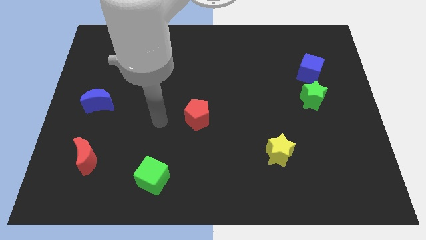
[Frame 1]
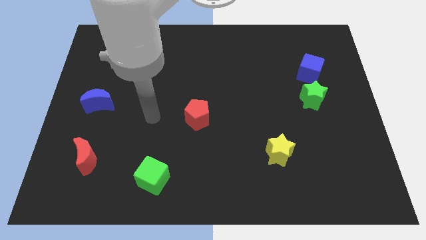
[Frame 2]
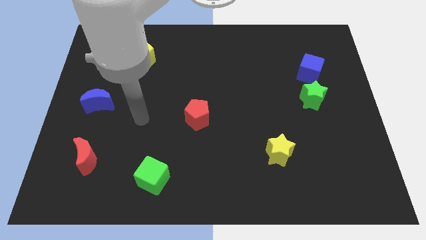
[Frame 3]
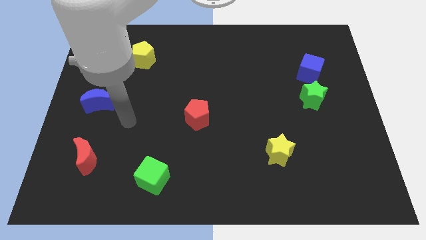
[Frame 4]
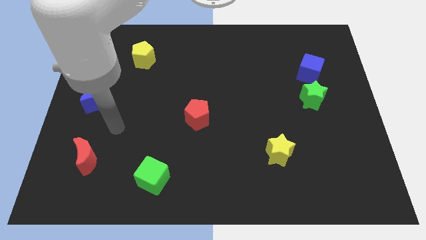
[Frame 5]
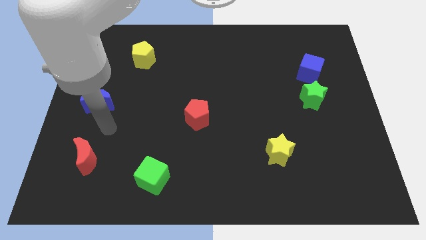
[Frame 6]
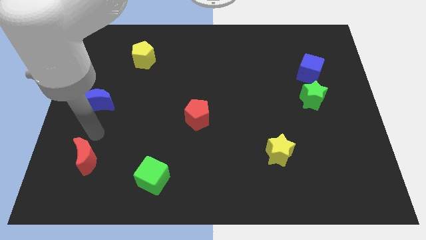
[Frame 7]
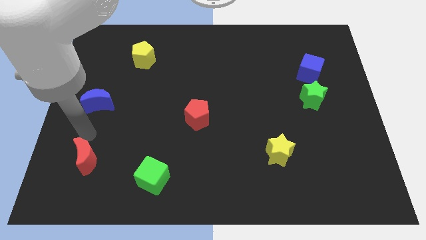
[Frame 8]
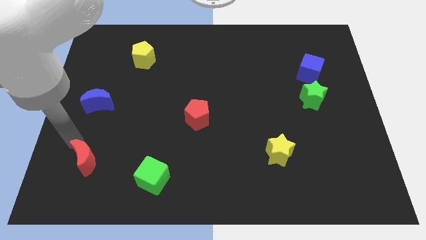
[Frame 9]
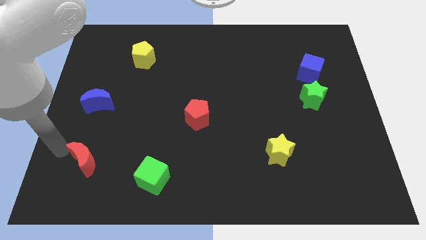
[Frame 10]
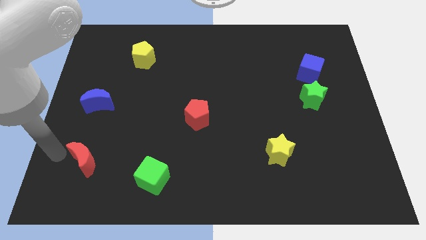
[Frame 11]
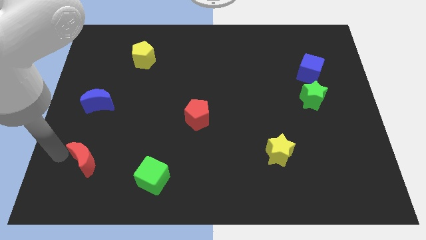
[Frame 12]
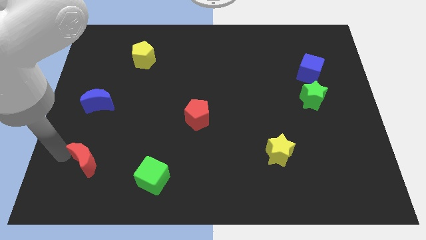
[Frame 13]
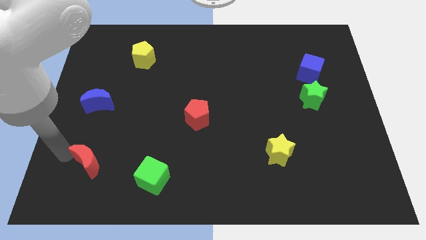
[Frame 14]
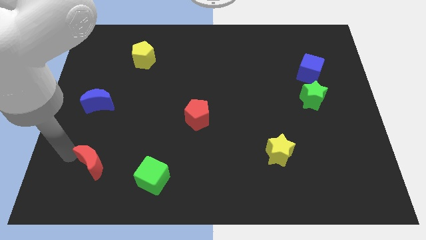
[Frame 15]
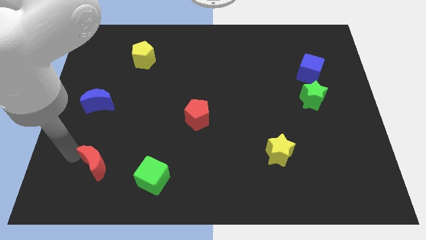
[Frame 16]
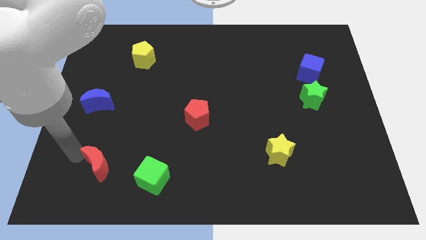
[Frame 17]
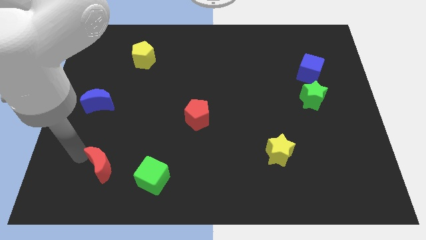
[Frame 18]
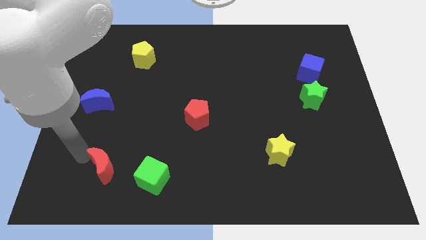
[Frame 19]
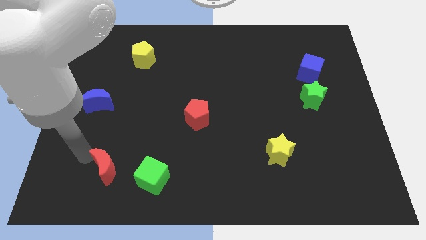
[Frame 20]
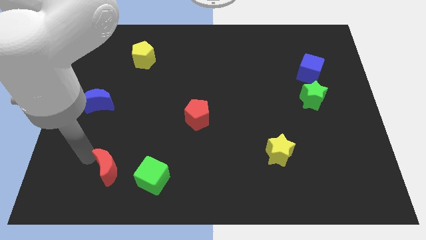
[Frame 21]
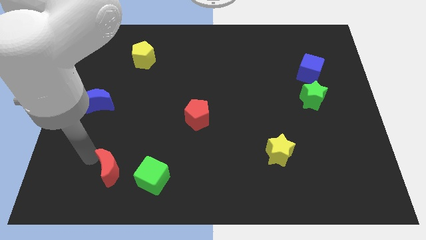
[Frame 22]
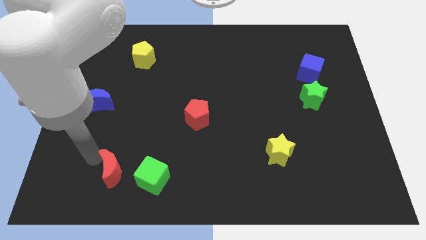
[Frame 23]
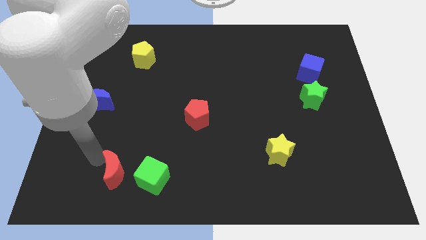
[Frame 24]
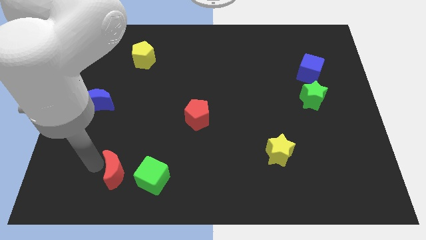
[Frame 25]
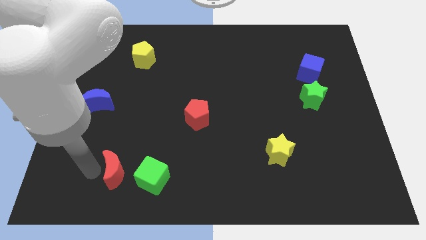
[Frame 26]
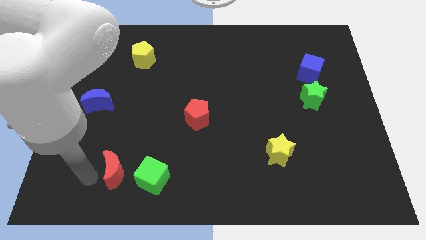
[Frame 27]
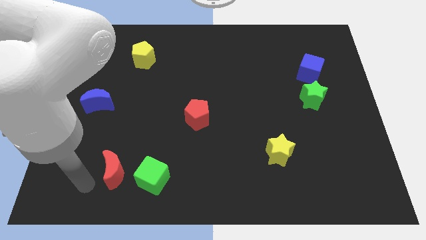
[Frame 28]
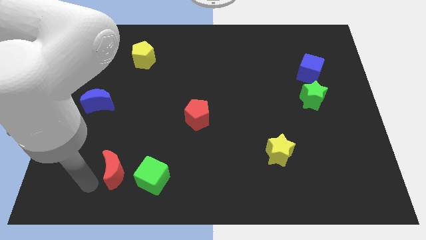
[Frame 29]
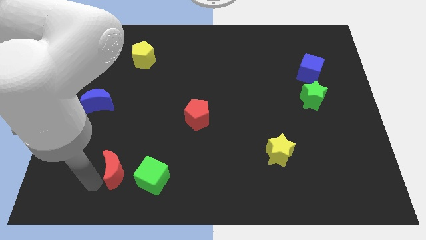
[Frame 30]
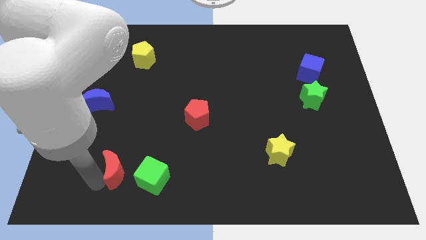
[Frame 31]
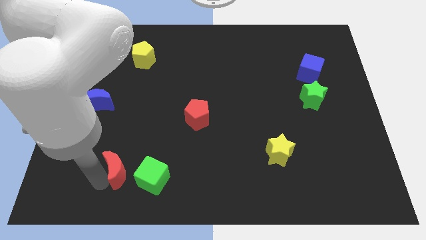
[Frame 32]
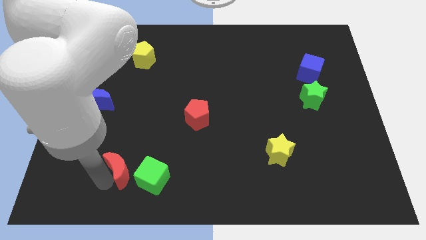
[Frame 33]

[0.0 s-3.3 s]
slightly move the red moon to the right

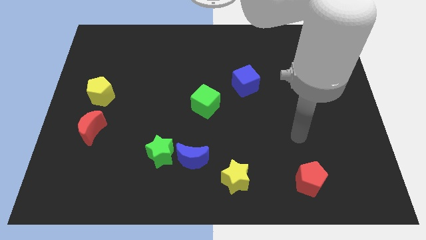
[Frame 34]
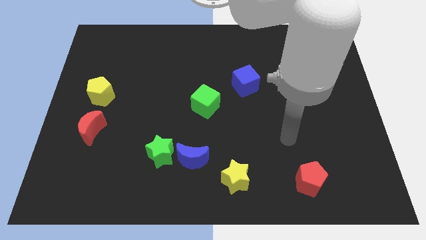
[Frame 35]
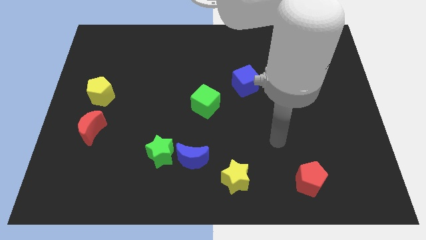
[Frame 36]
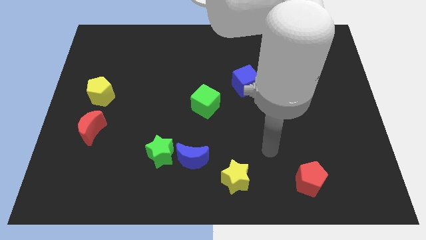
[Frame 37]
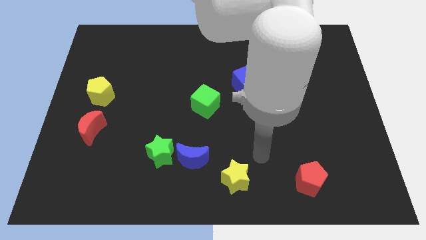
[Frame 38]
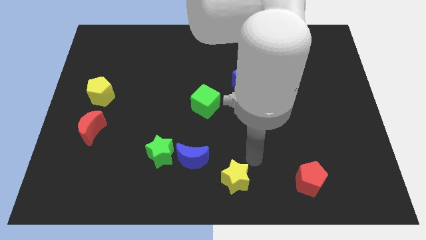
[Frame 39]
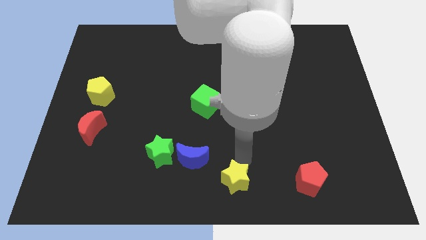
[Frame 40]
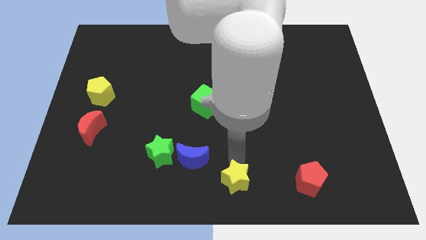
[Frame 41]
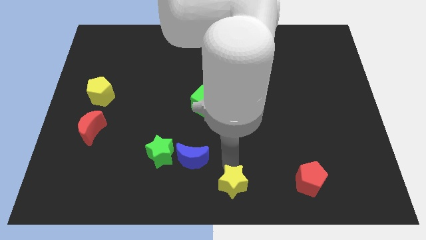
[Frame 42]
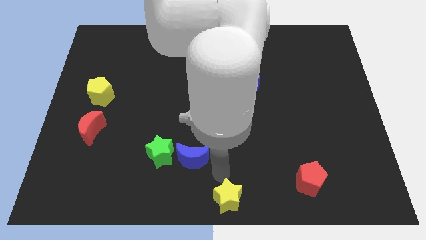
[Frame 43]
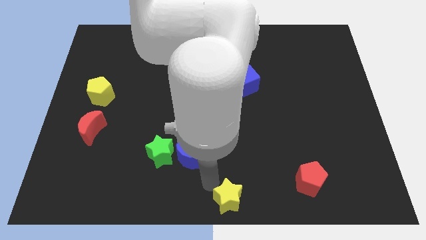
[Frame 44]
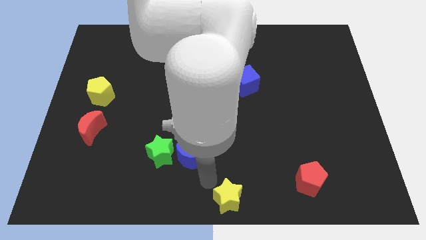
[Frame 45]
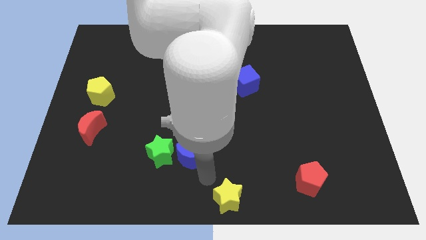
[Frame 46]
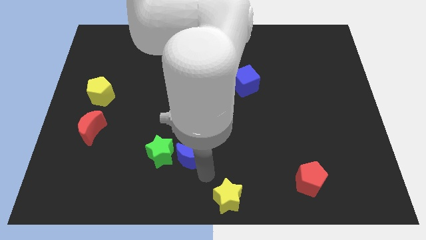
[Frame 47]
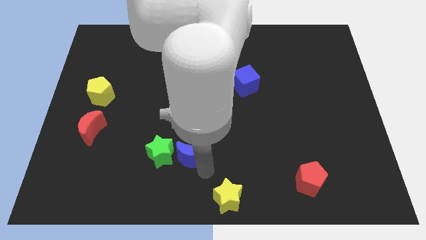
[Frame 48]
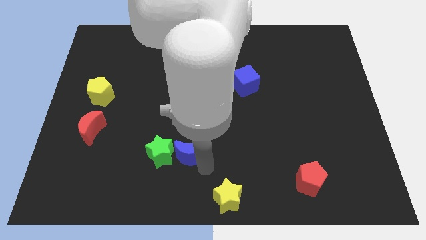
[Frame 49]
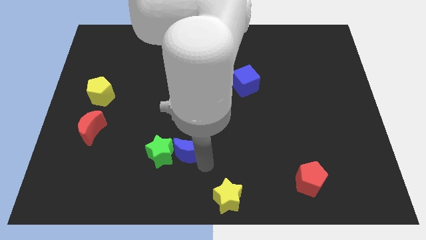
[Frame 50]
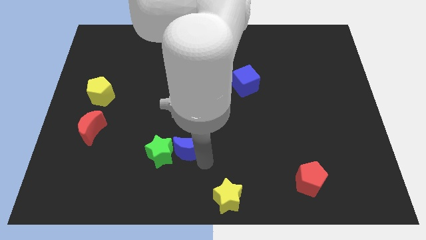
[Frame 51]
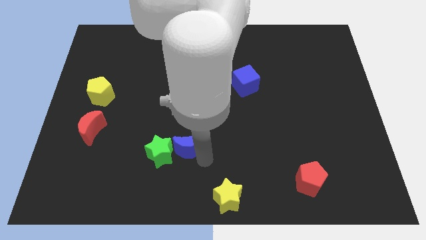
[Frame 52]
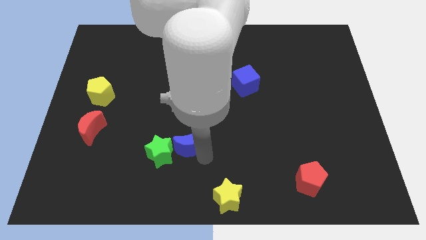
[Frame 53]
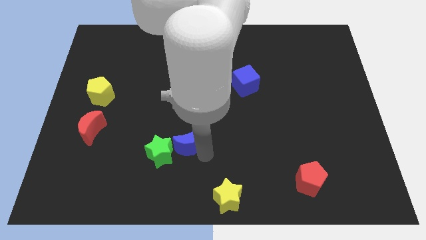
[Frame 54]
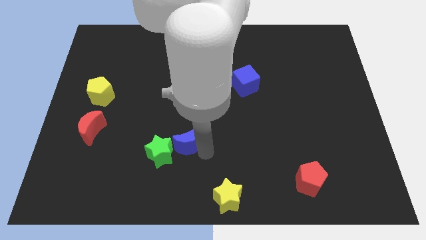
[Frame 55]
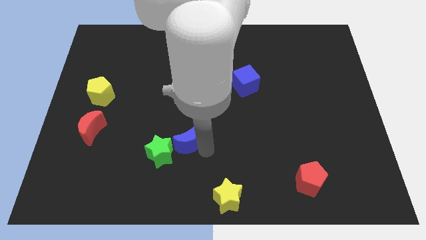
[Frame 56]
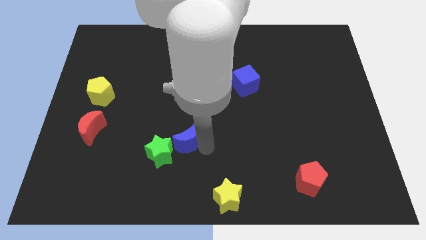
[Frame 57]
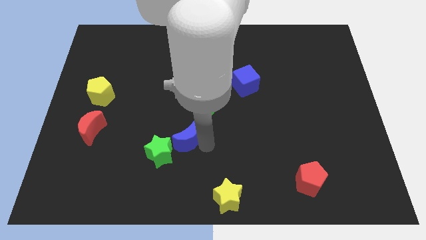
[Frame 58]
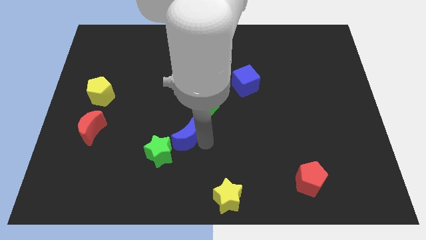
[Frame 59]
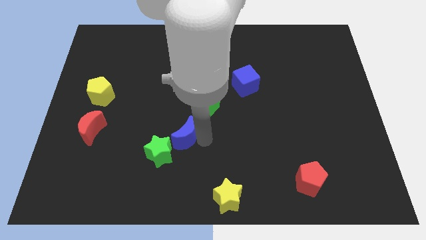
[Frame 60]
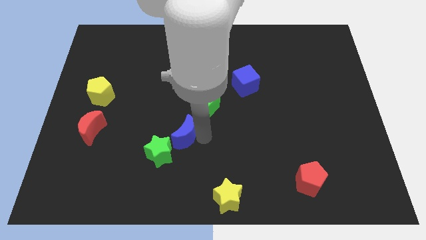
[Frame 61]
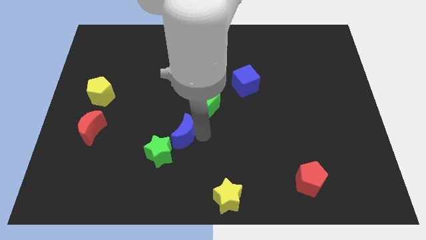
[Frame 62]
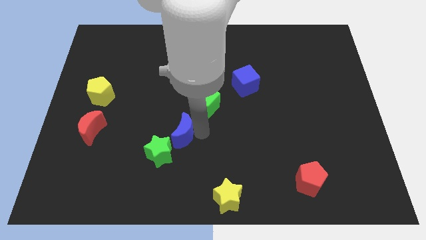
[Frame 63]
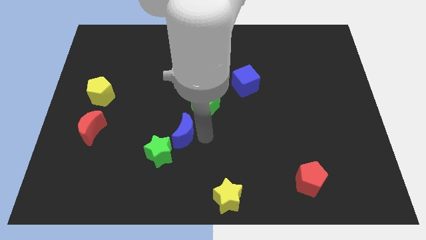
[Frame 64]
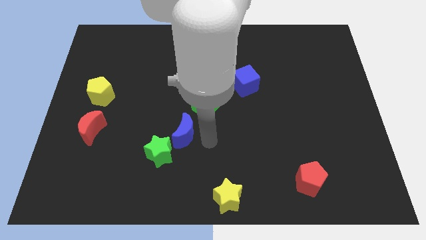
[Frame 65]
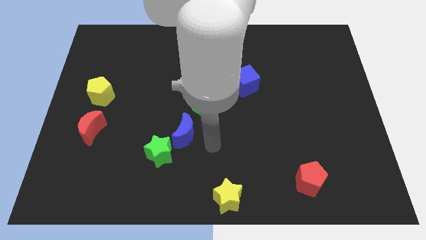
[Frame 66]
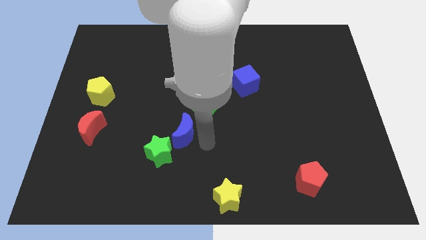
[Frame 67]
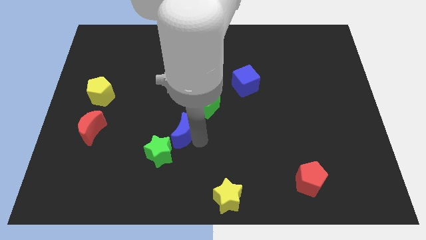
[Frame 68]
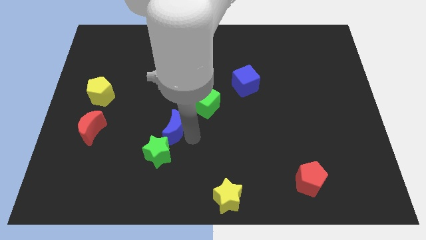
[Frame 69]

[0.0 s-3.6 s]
slightly push the blue moon upwards and then to the left

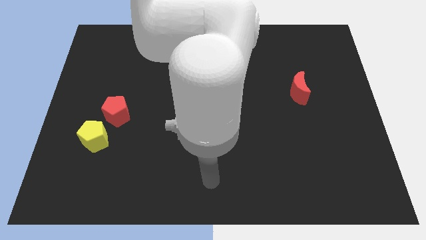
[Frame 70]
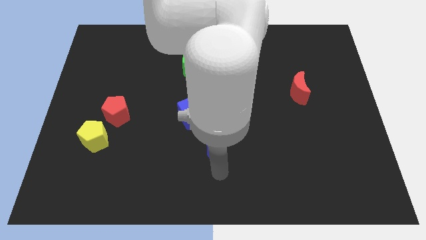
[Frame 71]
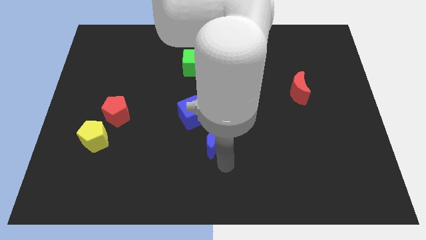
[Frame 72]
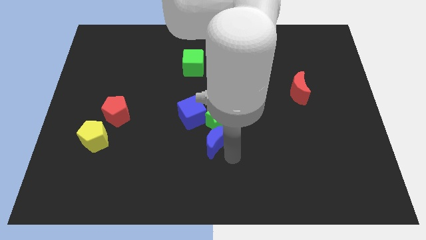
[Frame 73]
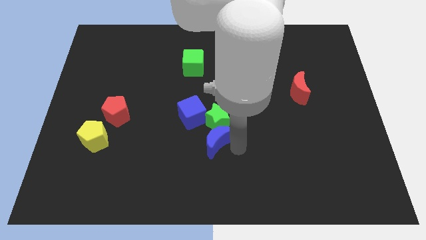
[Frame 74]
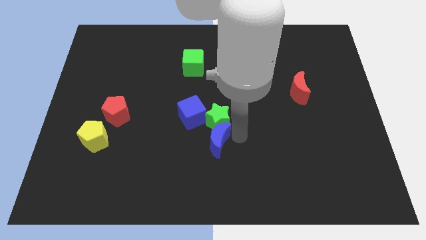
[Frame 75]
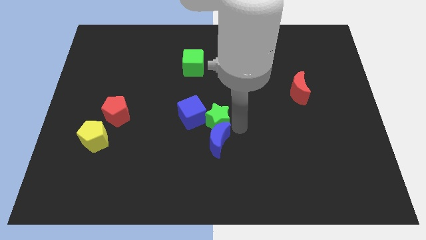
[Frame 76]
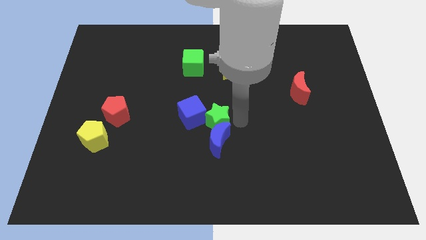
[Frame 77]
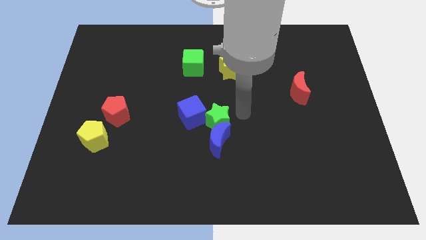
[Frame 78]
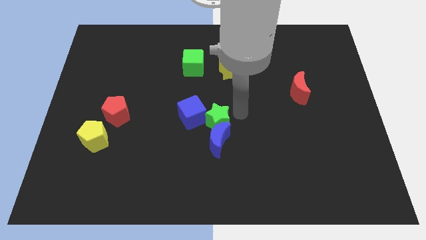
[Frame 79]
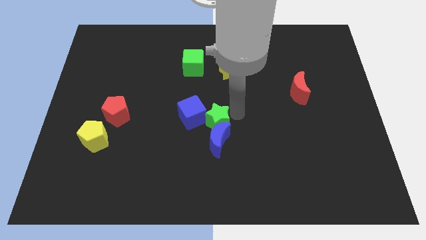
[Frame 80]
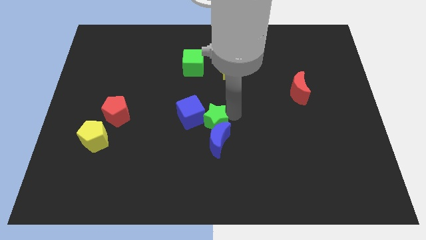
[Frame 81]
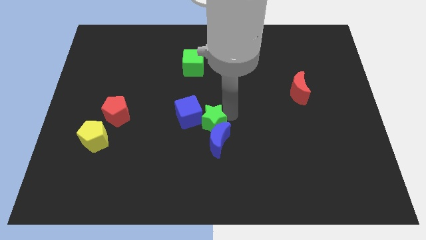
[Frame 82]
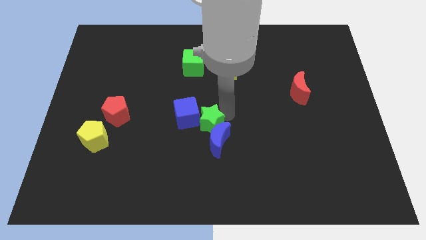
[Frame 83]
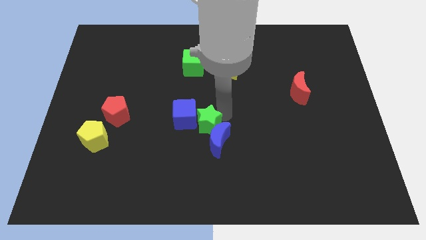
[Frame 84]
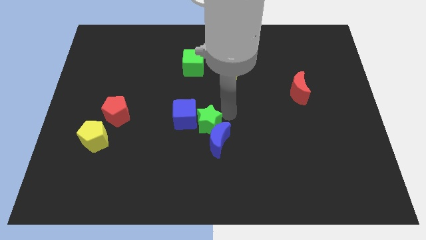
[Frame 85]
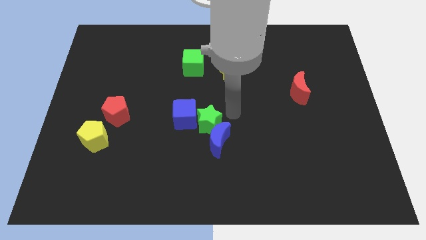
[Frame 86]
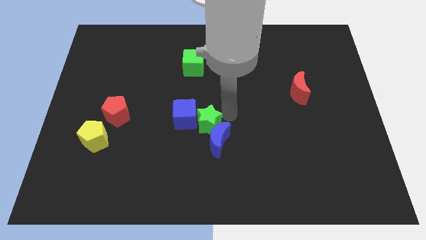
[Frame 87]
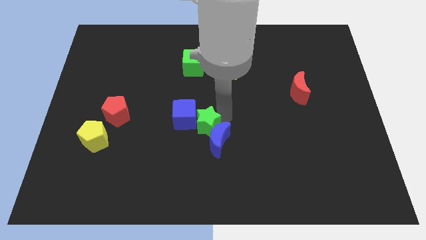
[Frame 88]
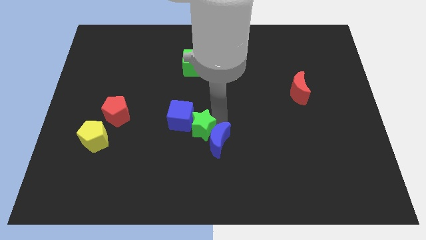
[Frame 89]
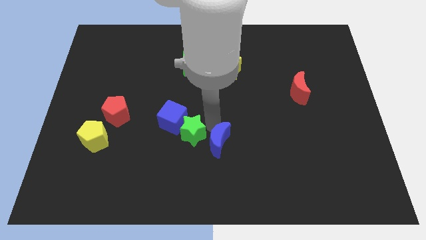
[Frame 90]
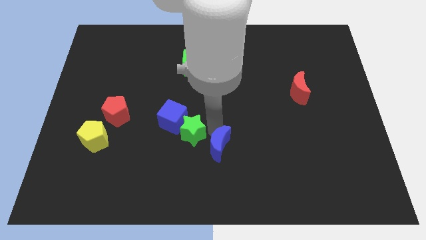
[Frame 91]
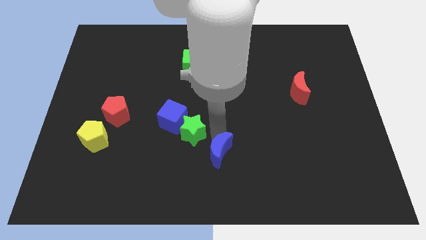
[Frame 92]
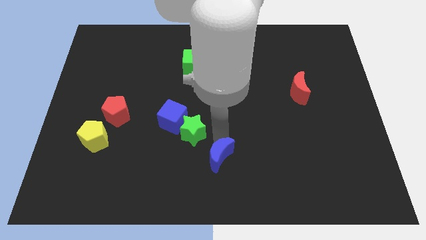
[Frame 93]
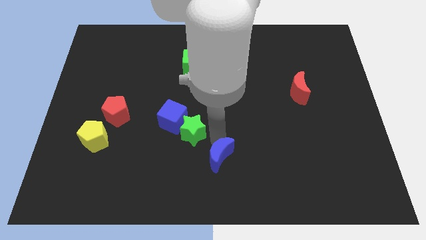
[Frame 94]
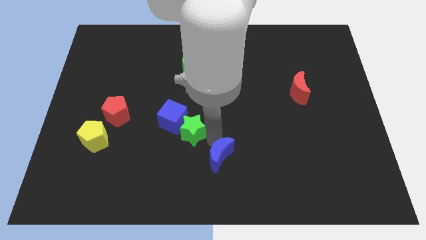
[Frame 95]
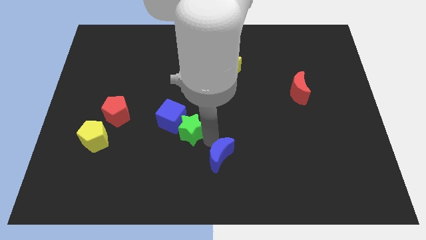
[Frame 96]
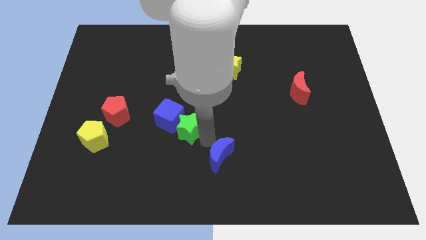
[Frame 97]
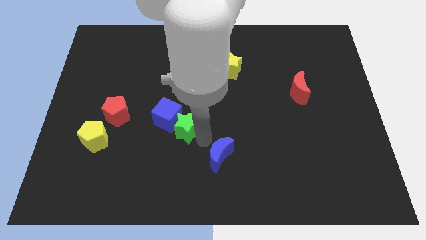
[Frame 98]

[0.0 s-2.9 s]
slightly slide the green star to the left
